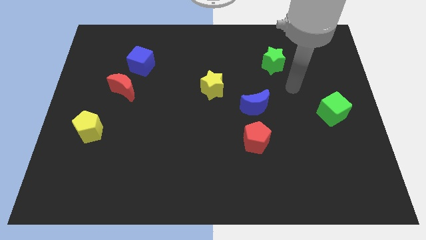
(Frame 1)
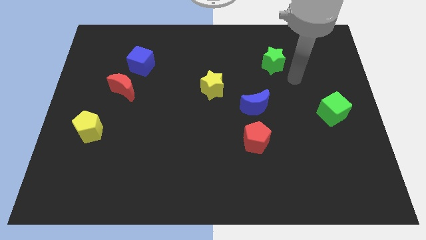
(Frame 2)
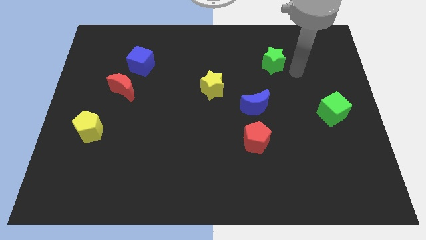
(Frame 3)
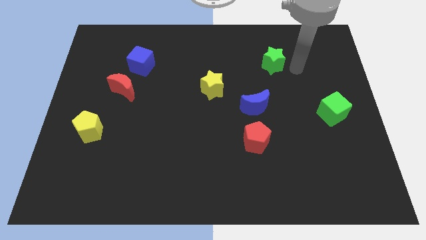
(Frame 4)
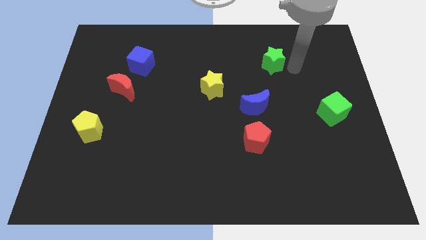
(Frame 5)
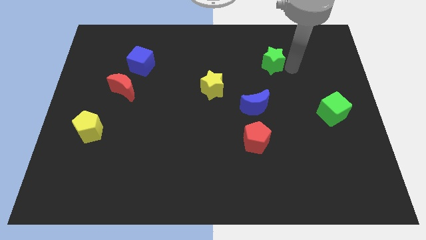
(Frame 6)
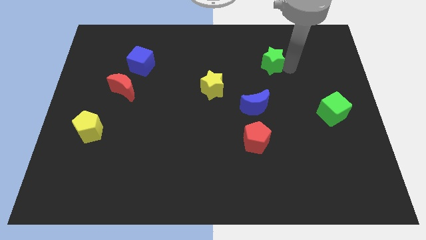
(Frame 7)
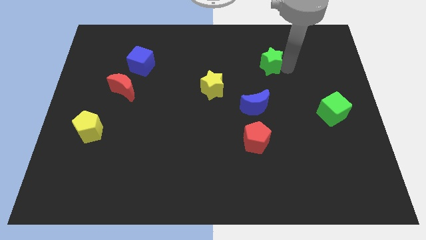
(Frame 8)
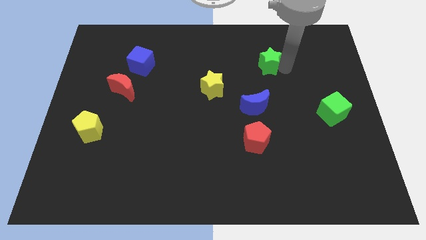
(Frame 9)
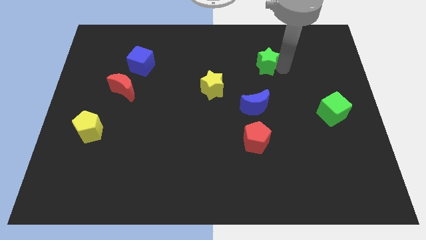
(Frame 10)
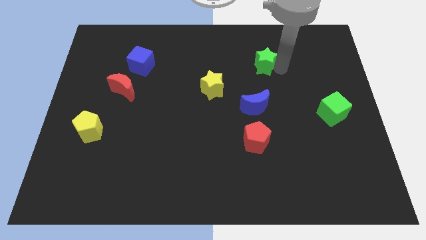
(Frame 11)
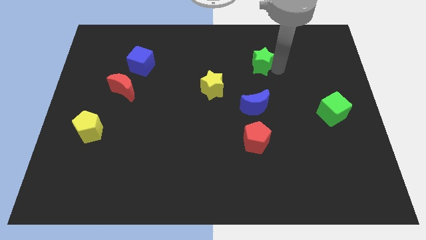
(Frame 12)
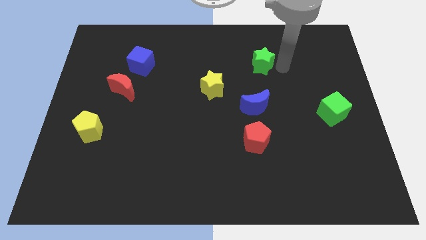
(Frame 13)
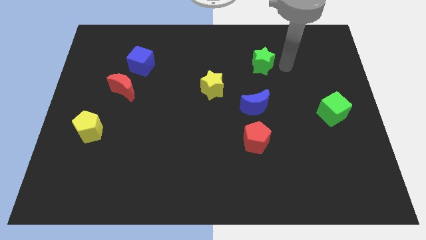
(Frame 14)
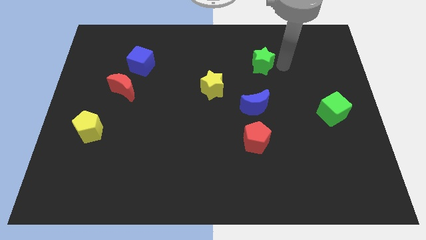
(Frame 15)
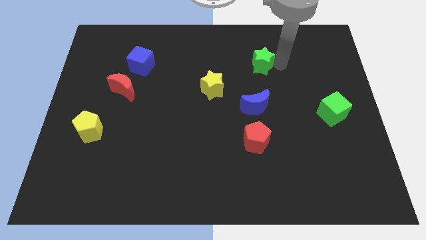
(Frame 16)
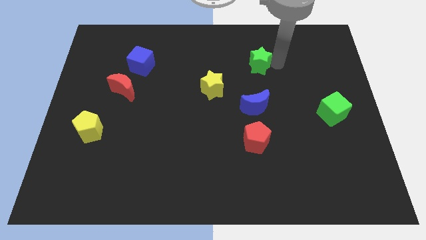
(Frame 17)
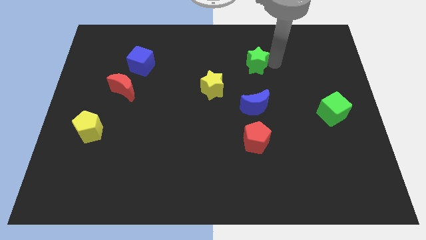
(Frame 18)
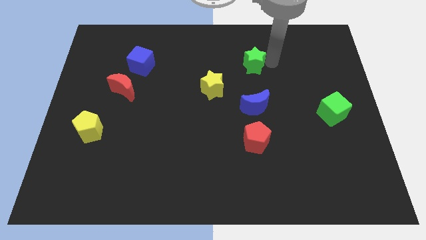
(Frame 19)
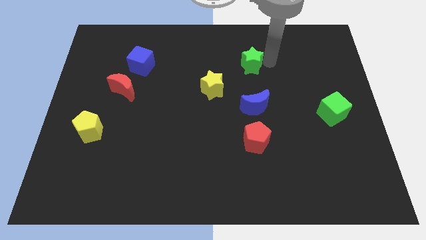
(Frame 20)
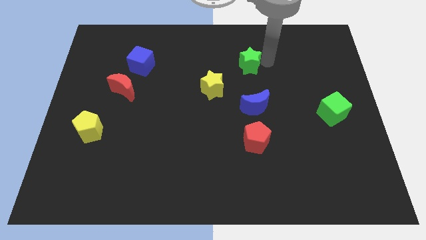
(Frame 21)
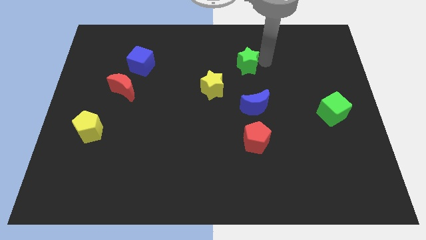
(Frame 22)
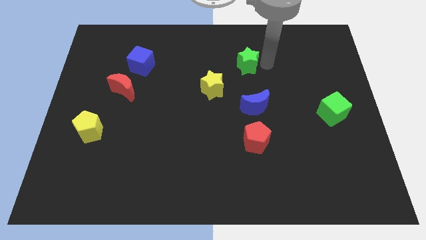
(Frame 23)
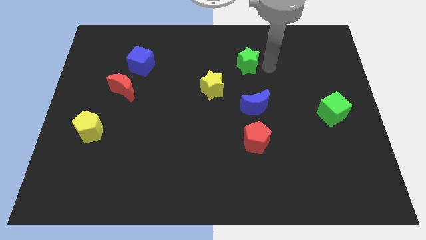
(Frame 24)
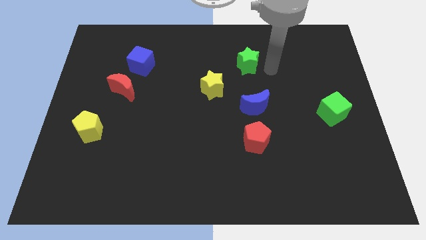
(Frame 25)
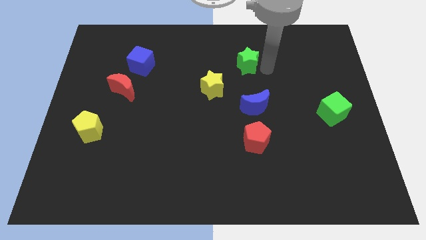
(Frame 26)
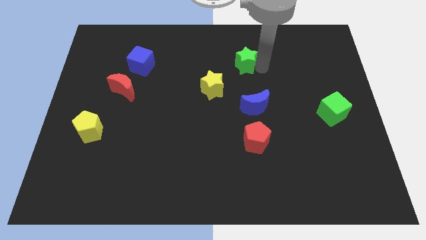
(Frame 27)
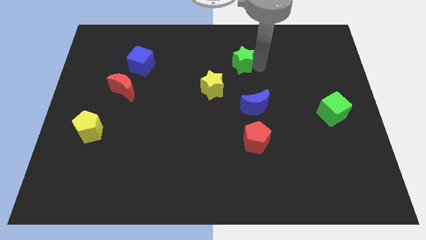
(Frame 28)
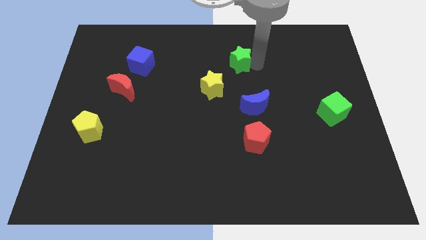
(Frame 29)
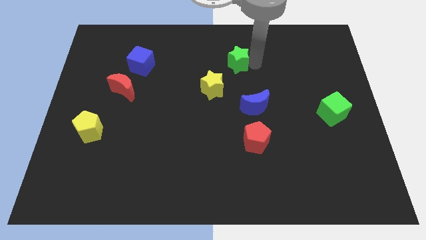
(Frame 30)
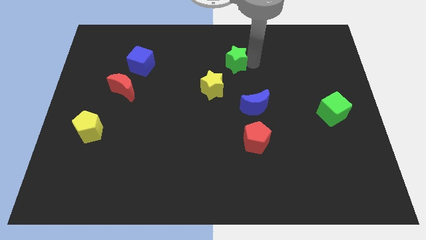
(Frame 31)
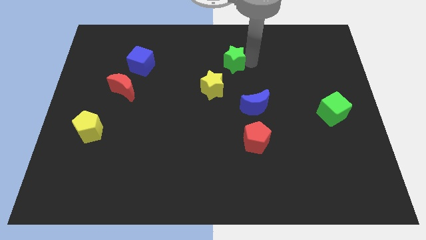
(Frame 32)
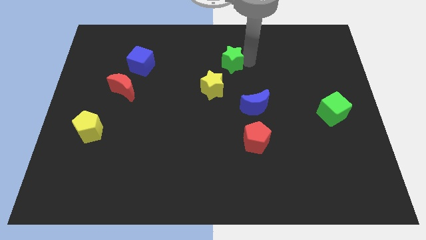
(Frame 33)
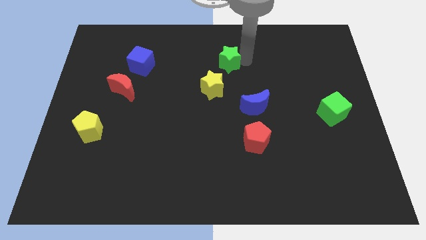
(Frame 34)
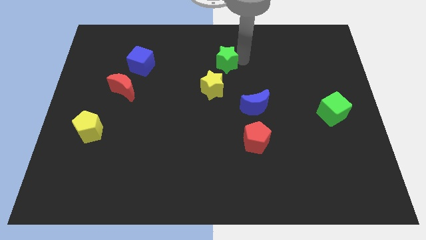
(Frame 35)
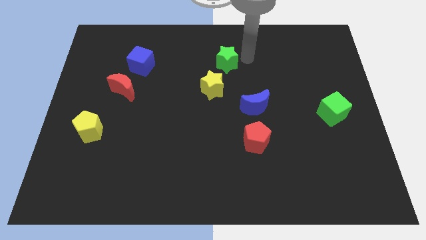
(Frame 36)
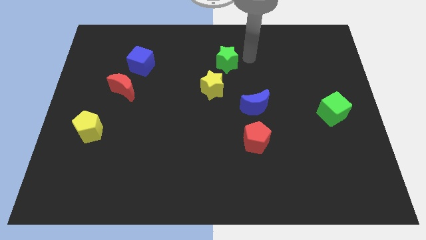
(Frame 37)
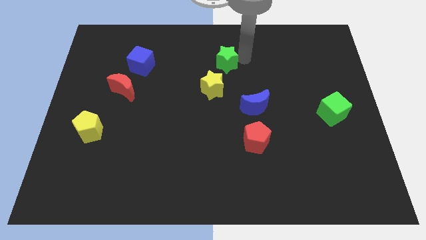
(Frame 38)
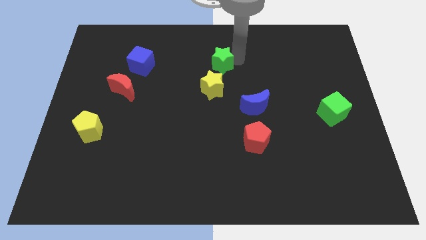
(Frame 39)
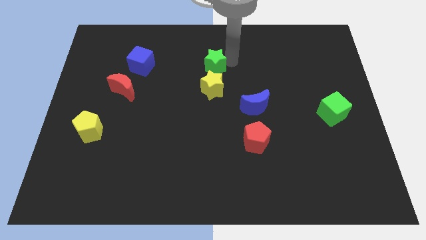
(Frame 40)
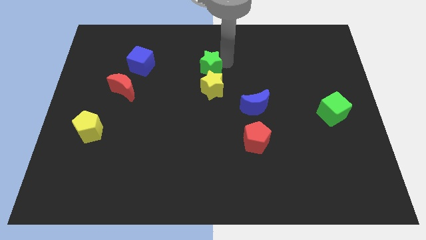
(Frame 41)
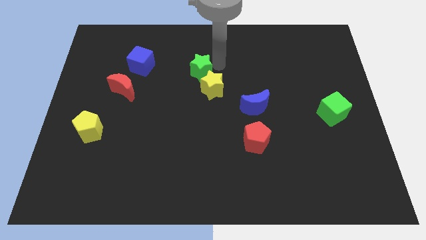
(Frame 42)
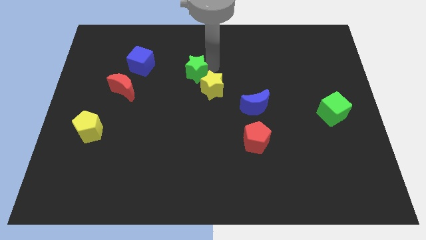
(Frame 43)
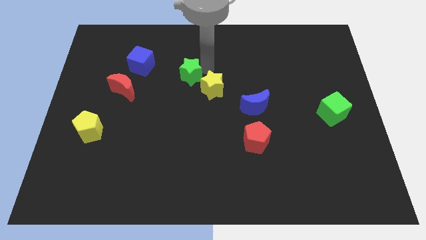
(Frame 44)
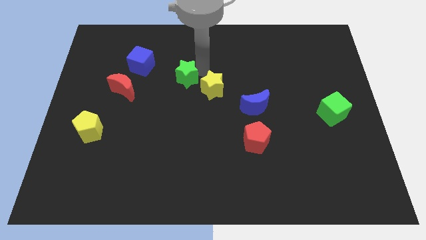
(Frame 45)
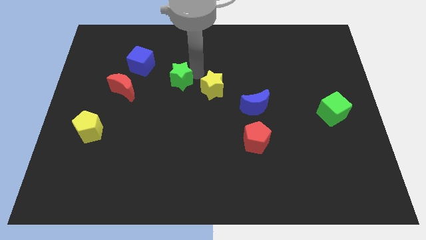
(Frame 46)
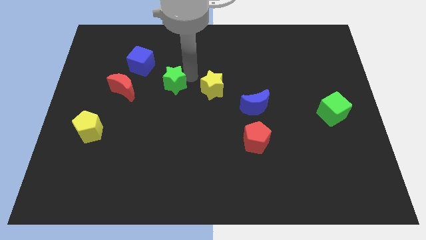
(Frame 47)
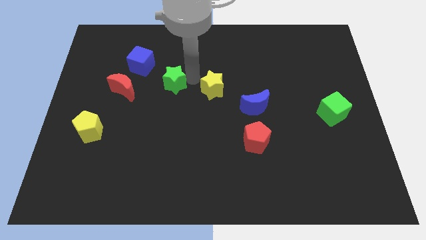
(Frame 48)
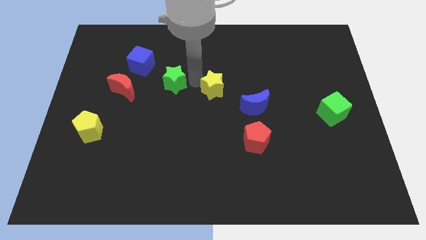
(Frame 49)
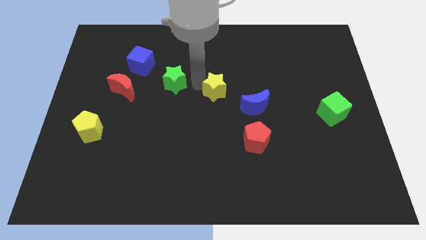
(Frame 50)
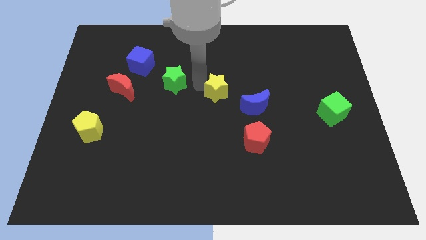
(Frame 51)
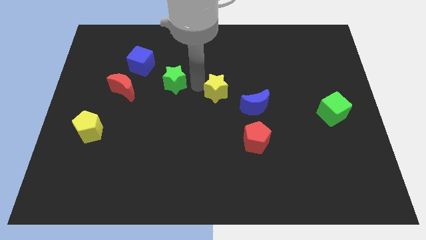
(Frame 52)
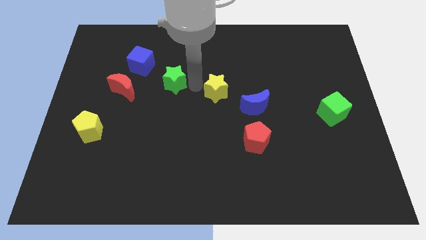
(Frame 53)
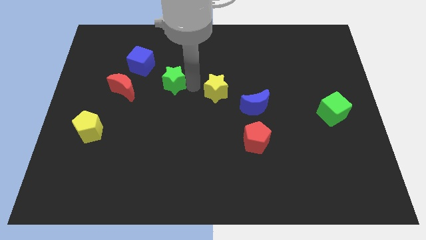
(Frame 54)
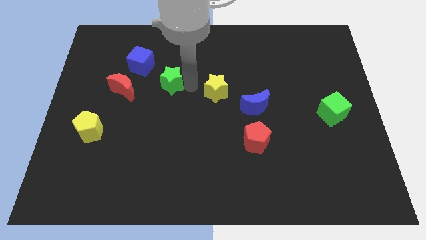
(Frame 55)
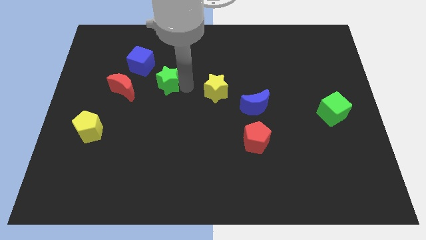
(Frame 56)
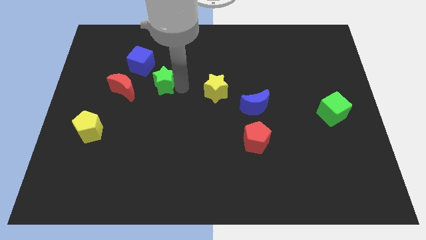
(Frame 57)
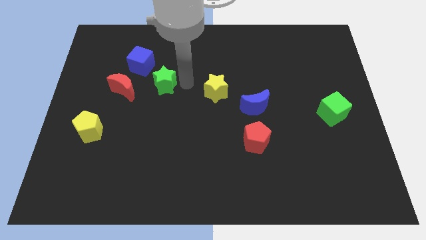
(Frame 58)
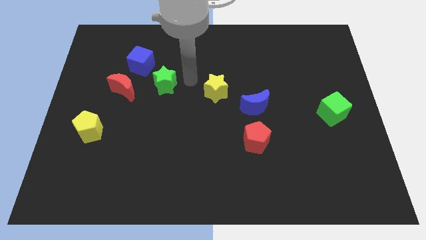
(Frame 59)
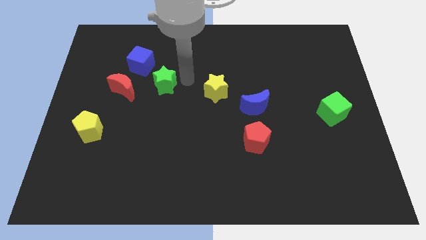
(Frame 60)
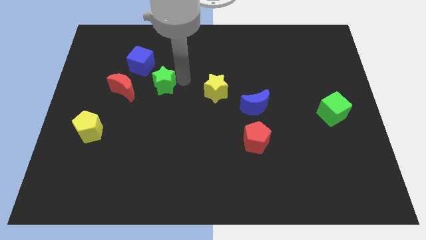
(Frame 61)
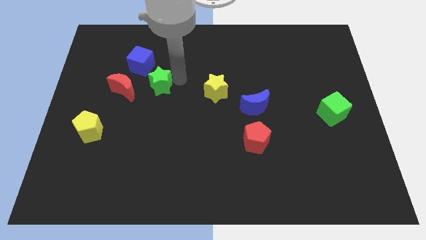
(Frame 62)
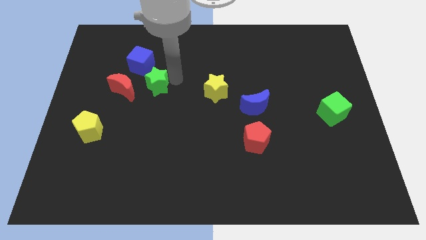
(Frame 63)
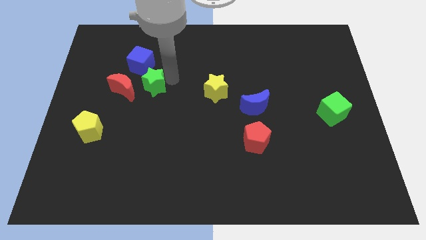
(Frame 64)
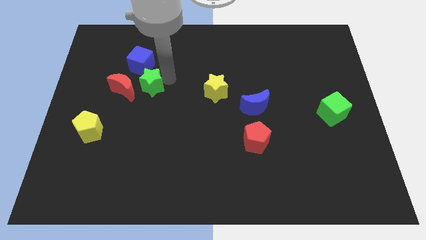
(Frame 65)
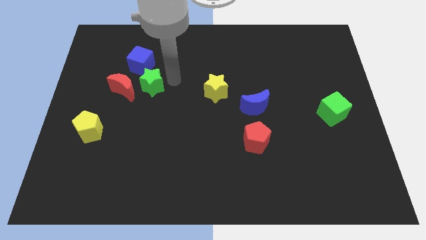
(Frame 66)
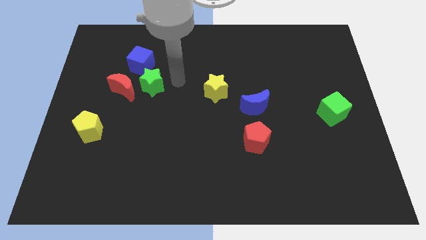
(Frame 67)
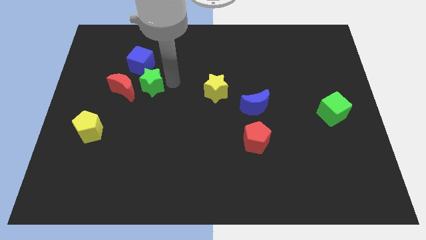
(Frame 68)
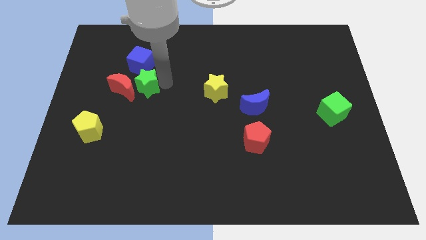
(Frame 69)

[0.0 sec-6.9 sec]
move the green star to the red moon
